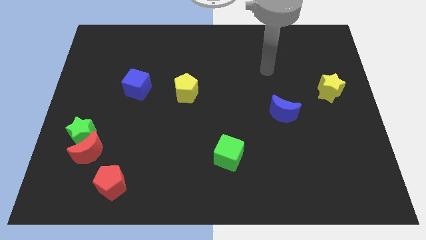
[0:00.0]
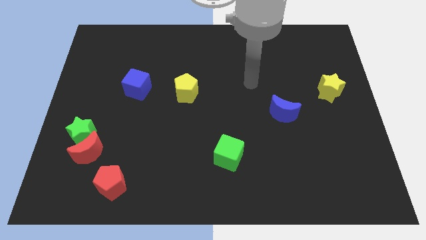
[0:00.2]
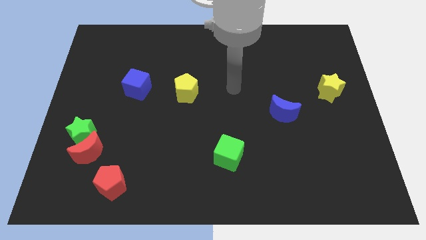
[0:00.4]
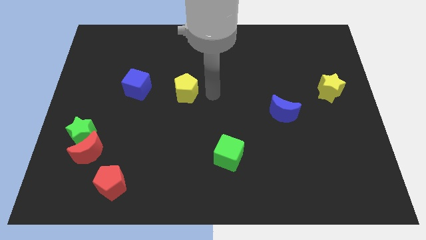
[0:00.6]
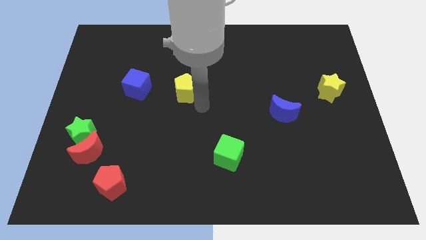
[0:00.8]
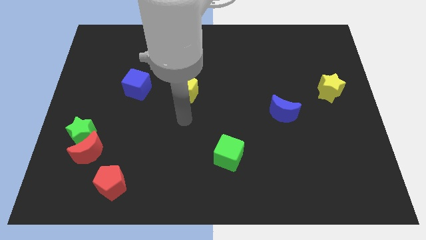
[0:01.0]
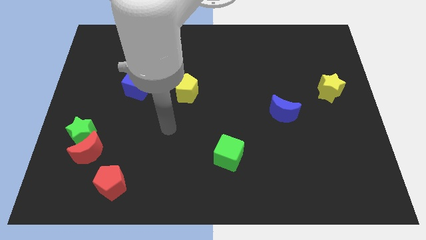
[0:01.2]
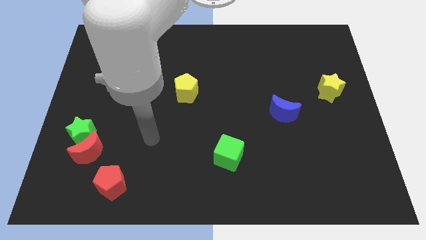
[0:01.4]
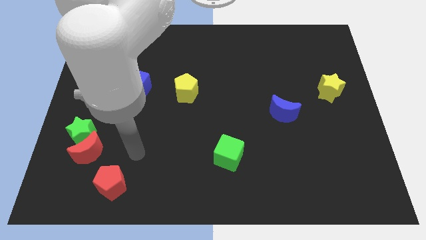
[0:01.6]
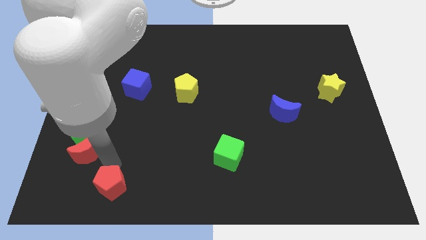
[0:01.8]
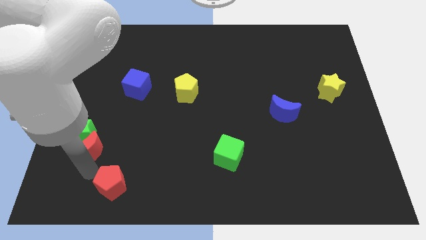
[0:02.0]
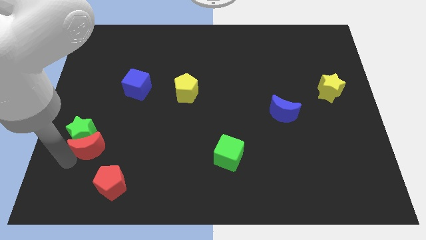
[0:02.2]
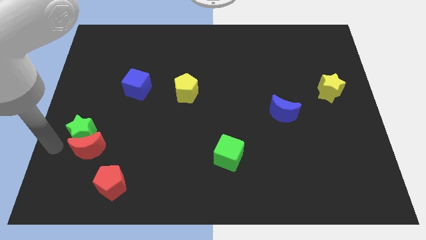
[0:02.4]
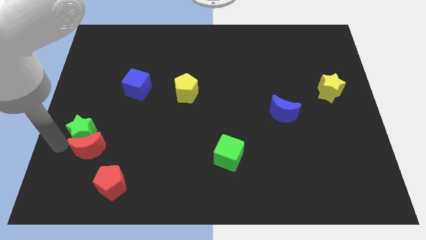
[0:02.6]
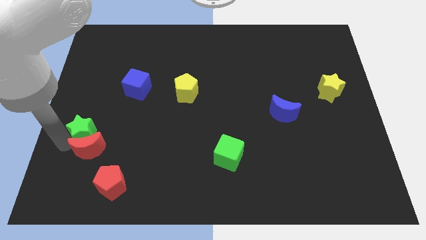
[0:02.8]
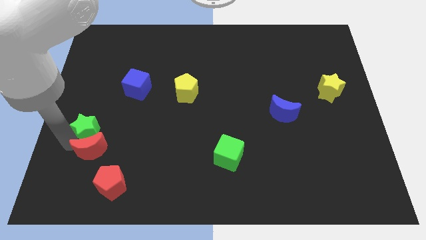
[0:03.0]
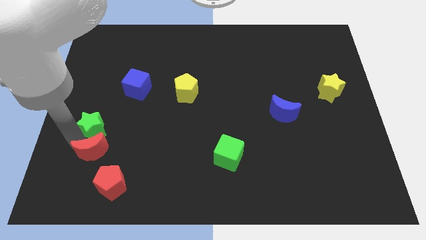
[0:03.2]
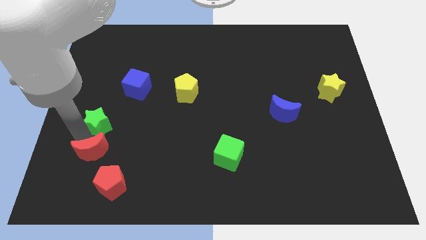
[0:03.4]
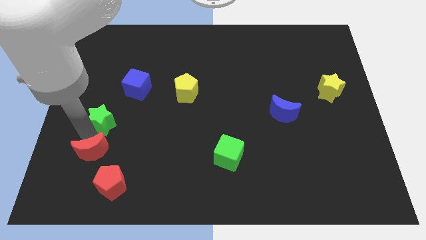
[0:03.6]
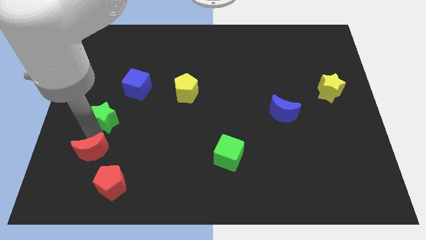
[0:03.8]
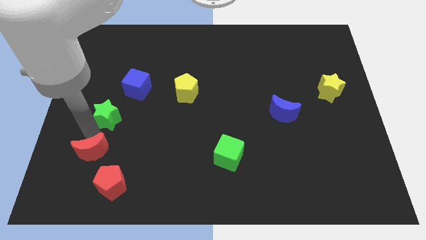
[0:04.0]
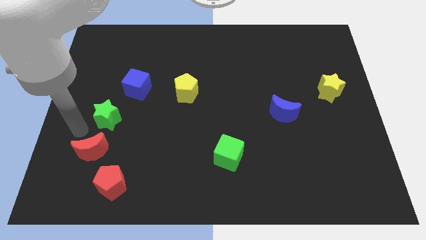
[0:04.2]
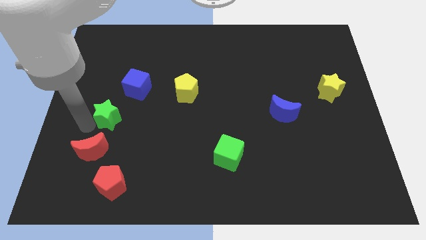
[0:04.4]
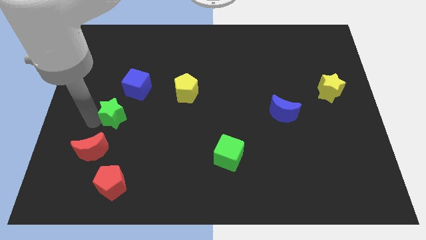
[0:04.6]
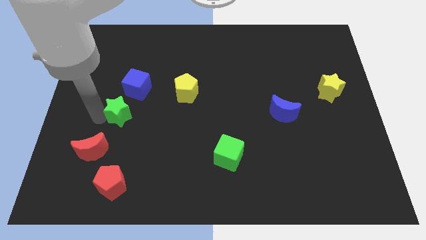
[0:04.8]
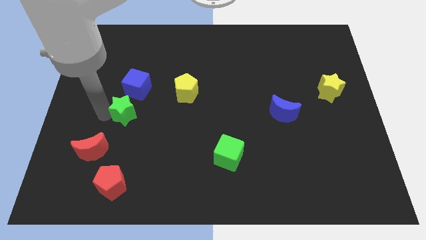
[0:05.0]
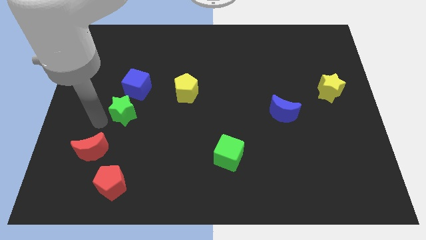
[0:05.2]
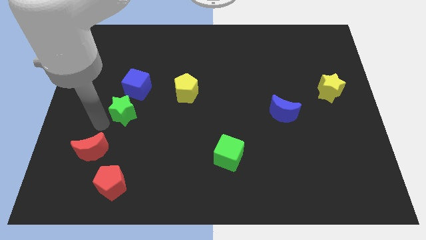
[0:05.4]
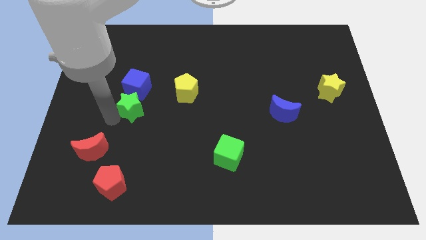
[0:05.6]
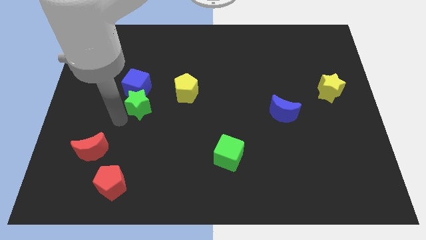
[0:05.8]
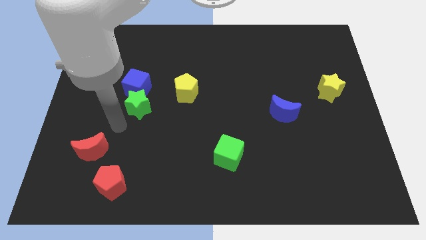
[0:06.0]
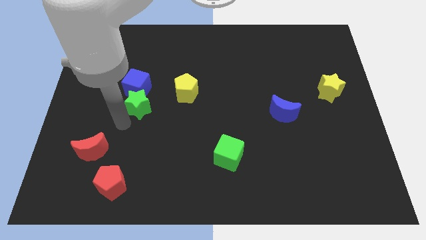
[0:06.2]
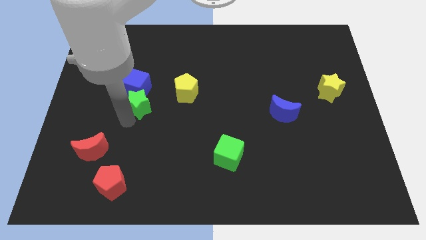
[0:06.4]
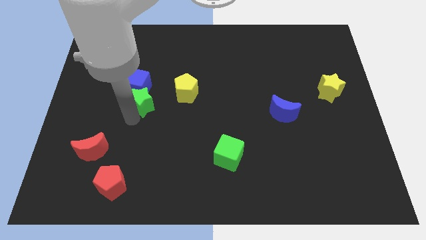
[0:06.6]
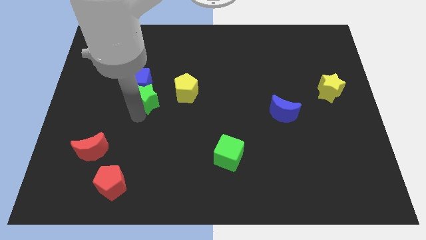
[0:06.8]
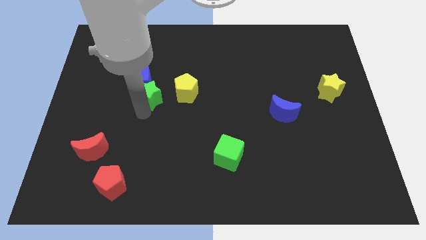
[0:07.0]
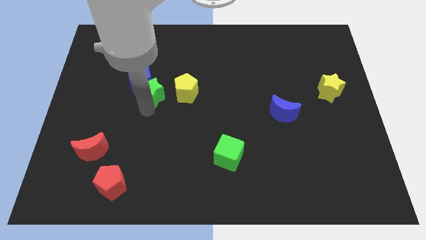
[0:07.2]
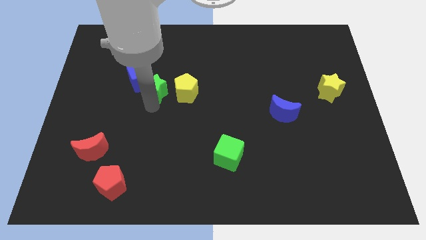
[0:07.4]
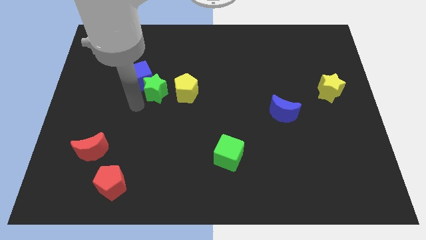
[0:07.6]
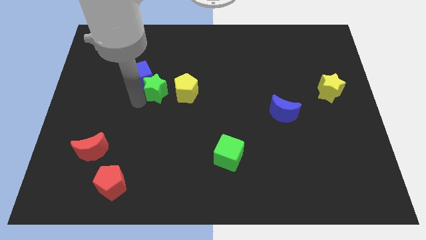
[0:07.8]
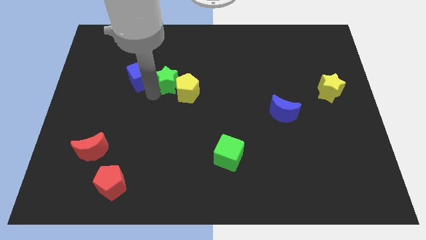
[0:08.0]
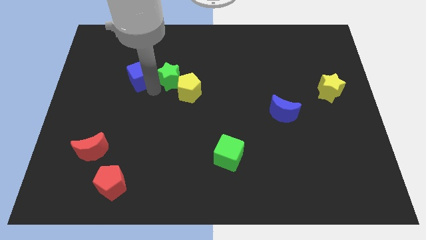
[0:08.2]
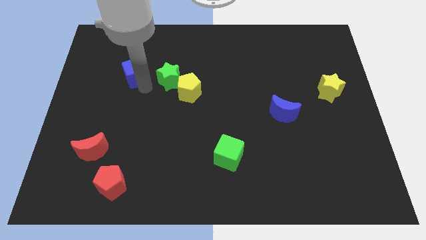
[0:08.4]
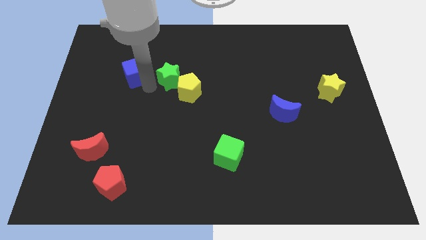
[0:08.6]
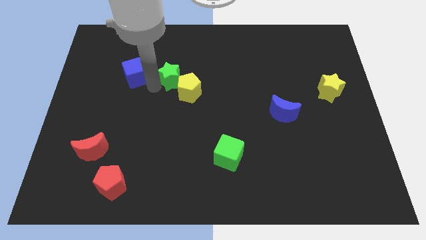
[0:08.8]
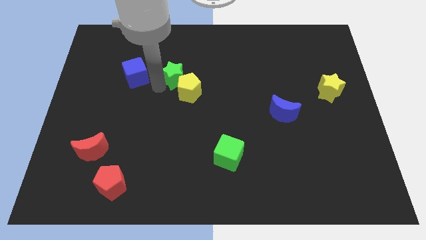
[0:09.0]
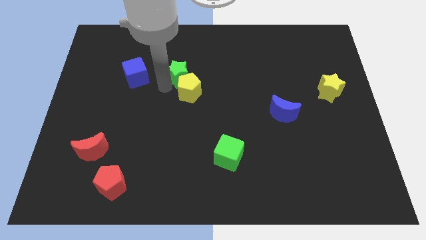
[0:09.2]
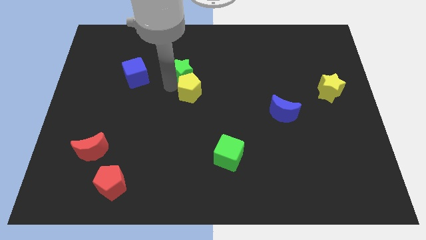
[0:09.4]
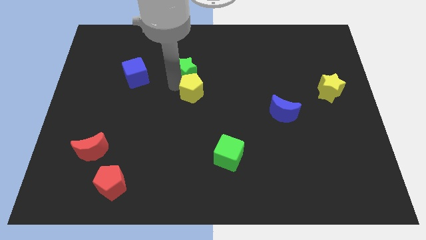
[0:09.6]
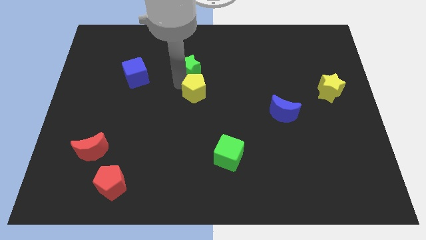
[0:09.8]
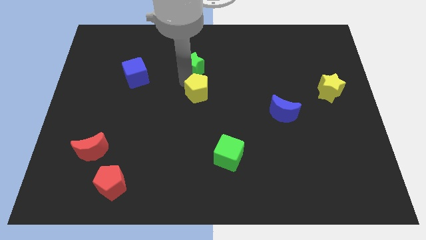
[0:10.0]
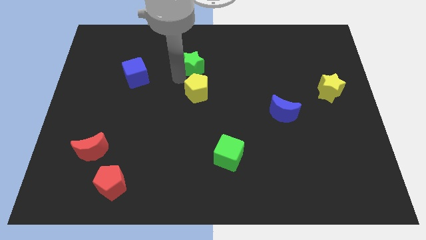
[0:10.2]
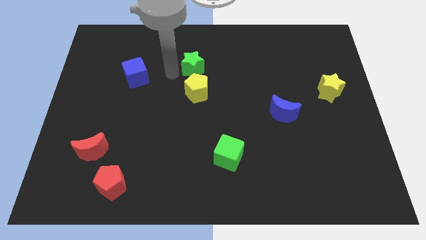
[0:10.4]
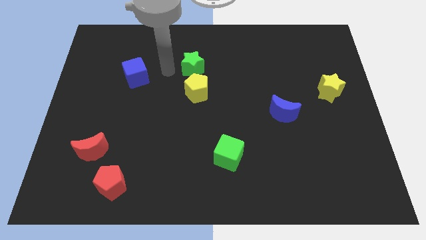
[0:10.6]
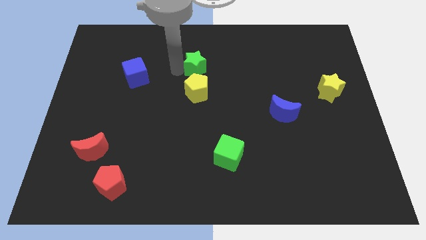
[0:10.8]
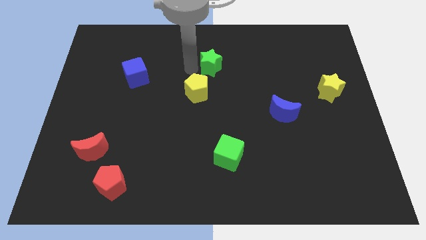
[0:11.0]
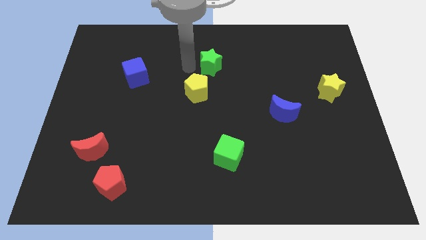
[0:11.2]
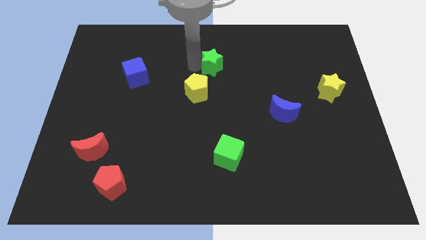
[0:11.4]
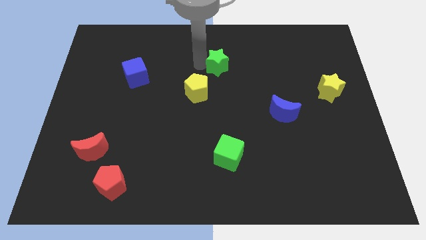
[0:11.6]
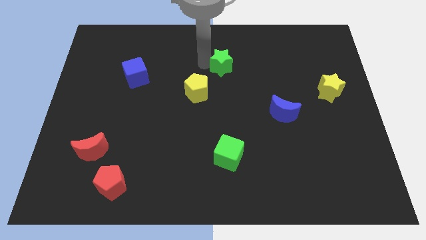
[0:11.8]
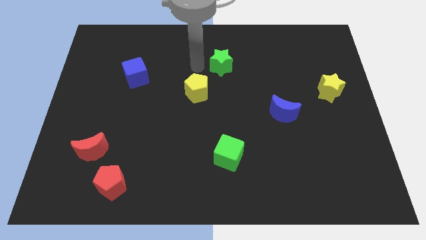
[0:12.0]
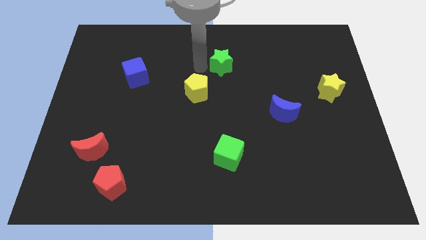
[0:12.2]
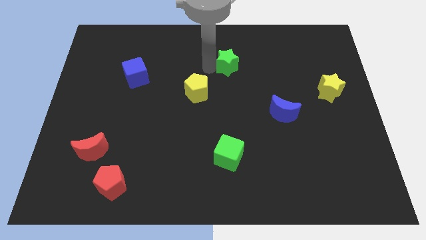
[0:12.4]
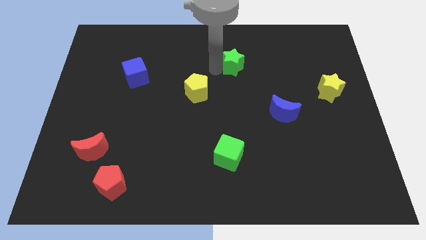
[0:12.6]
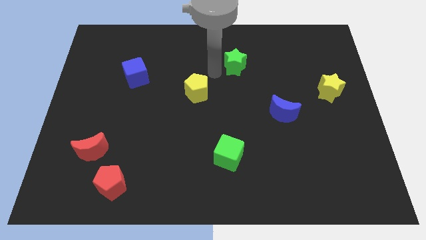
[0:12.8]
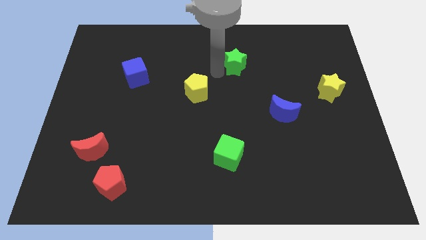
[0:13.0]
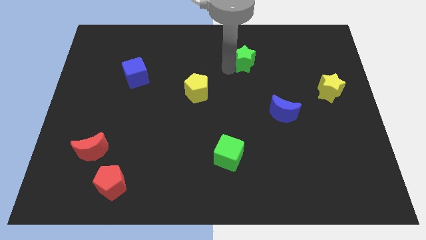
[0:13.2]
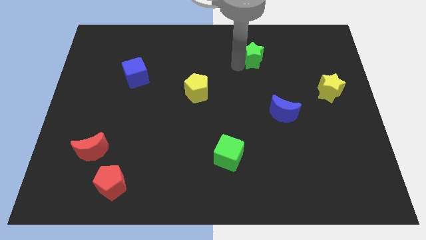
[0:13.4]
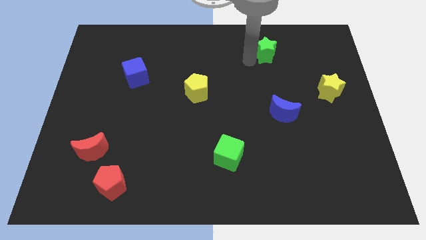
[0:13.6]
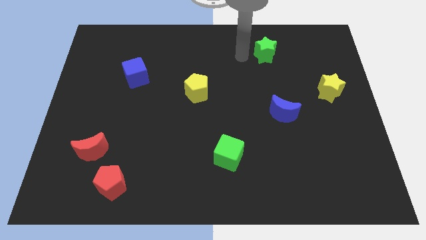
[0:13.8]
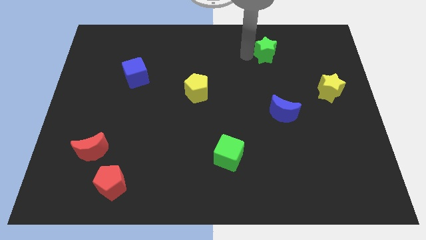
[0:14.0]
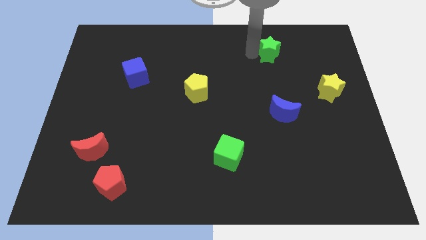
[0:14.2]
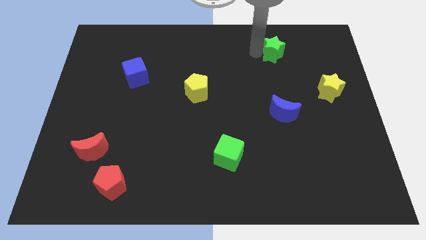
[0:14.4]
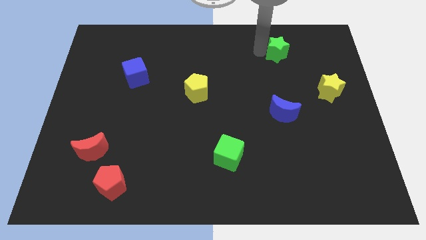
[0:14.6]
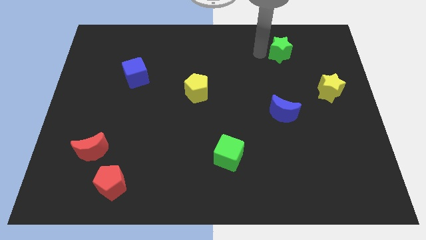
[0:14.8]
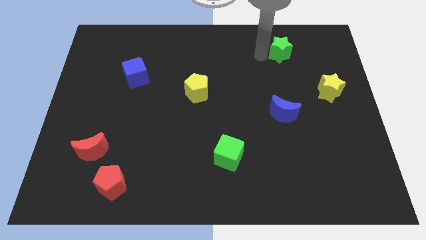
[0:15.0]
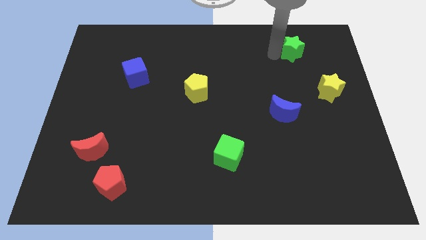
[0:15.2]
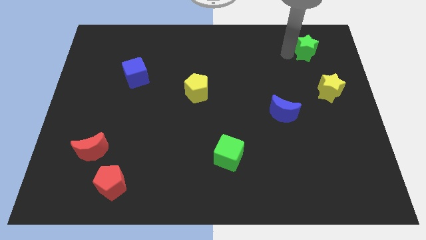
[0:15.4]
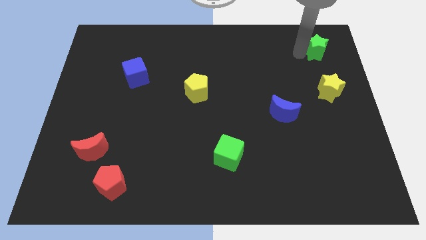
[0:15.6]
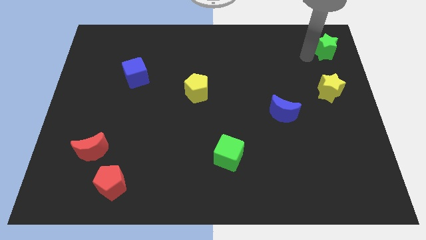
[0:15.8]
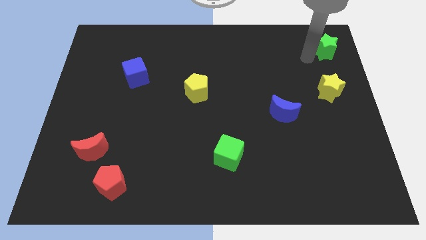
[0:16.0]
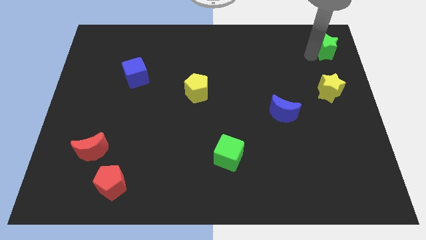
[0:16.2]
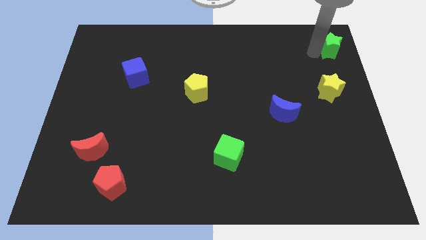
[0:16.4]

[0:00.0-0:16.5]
put the green star to the top right corner
